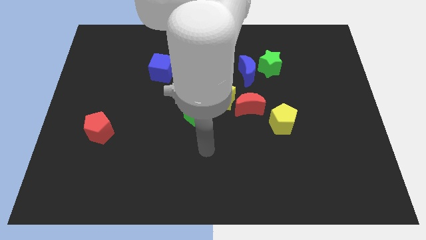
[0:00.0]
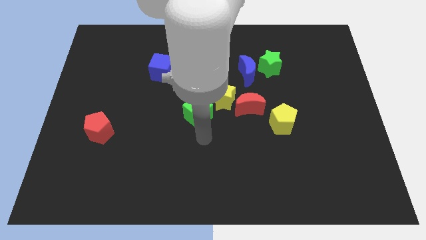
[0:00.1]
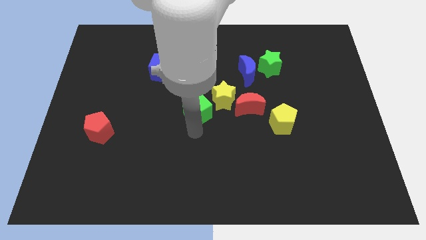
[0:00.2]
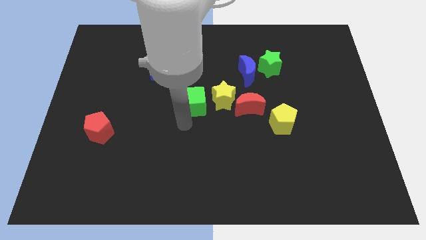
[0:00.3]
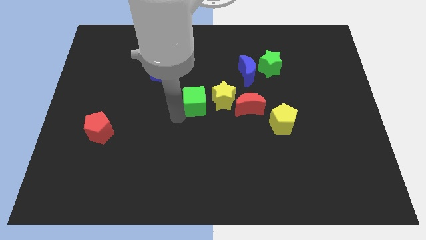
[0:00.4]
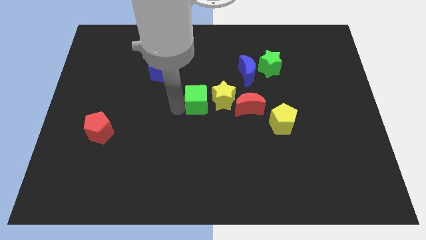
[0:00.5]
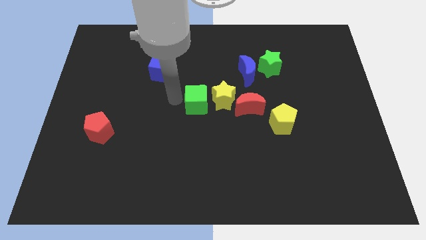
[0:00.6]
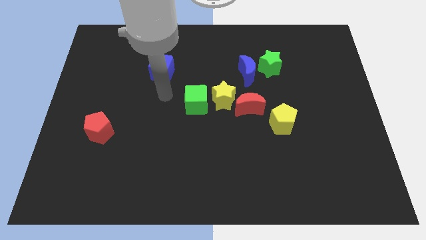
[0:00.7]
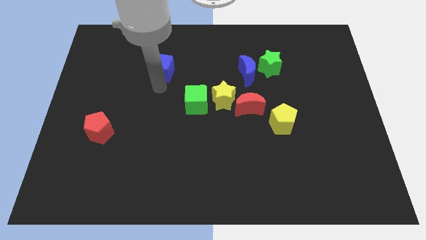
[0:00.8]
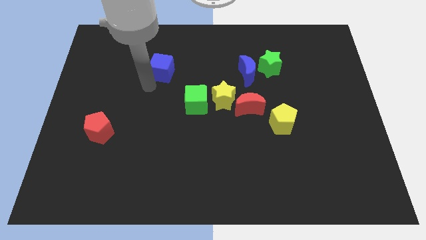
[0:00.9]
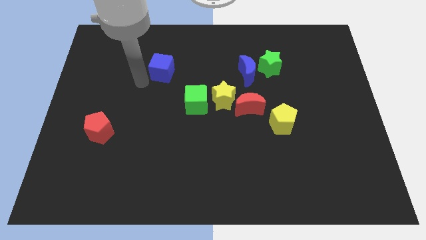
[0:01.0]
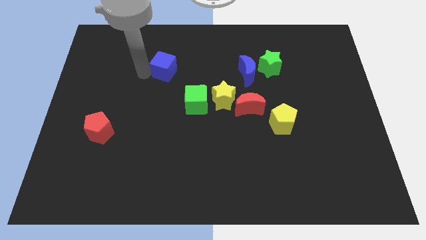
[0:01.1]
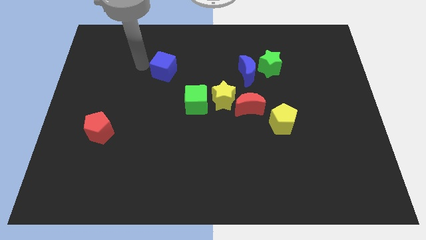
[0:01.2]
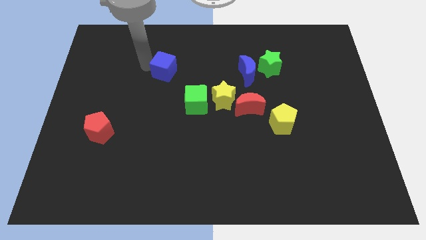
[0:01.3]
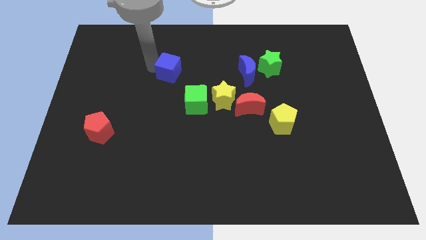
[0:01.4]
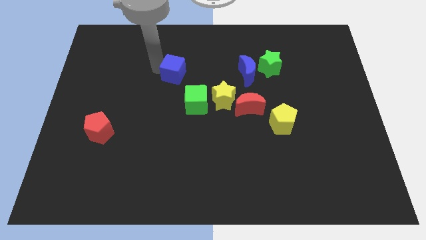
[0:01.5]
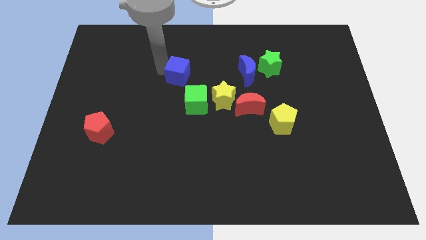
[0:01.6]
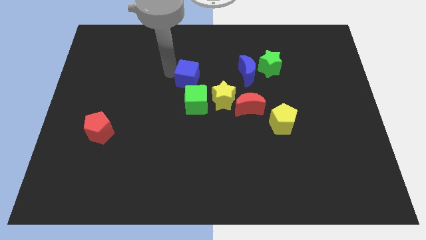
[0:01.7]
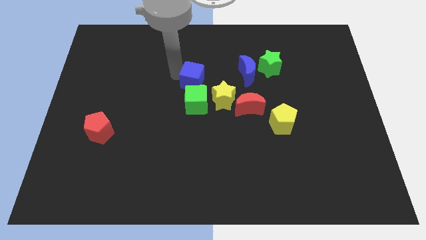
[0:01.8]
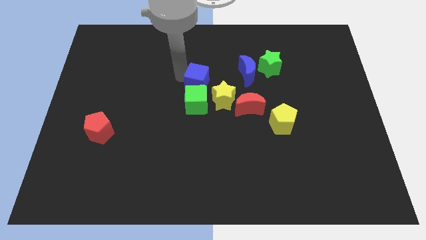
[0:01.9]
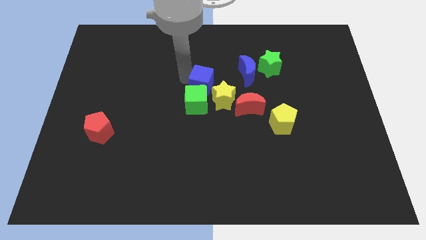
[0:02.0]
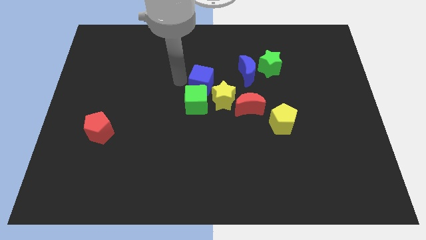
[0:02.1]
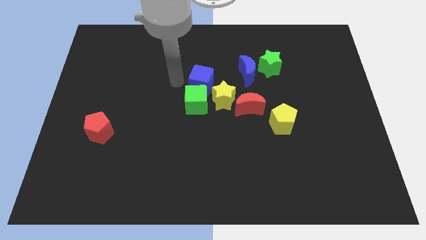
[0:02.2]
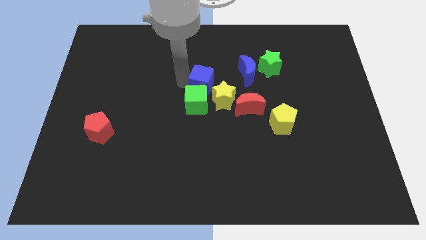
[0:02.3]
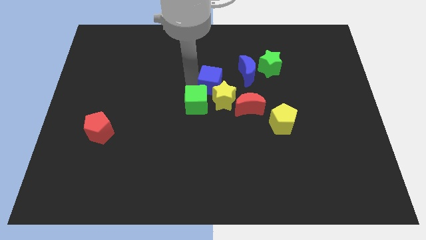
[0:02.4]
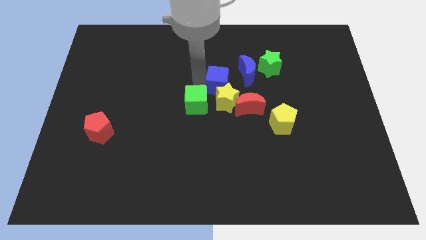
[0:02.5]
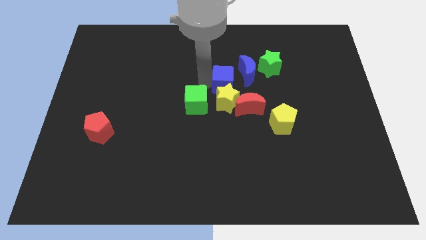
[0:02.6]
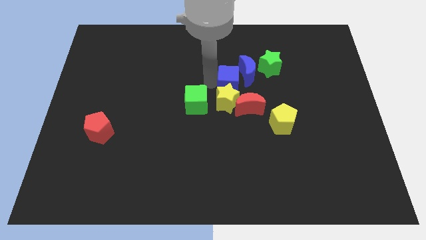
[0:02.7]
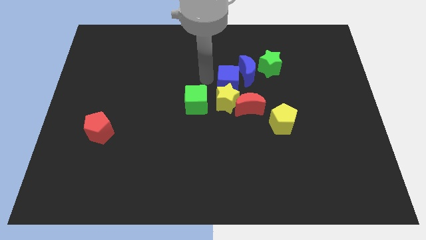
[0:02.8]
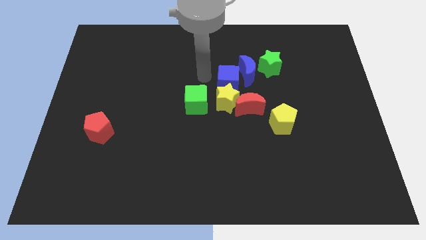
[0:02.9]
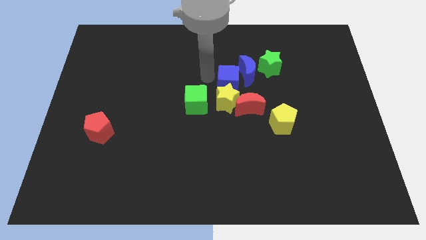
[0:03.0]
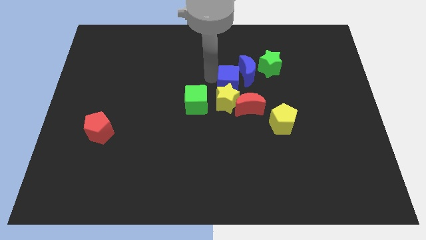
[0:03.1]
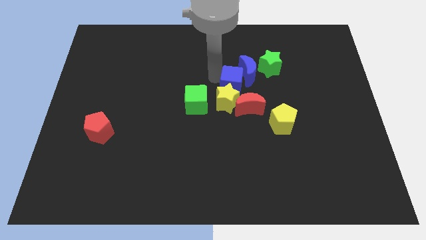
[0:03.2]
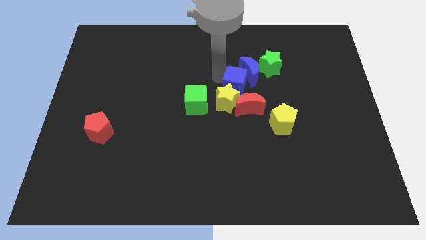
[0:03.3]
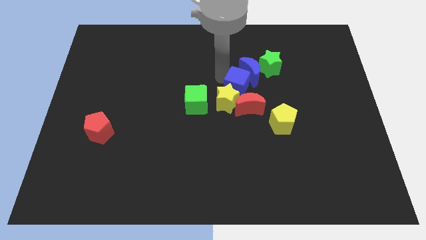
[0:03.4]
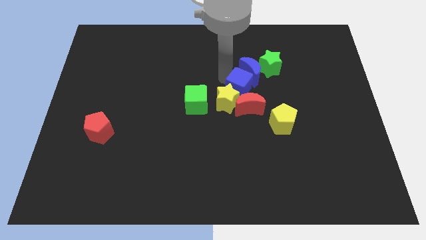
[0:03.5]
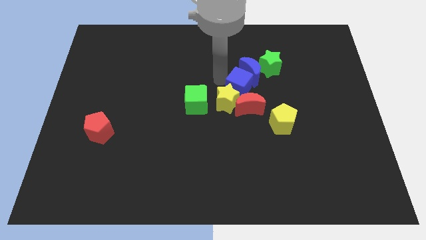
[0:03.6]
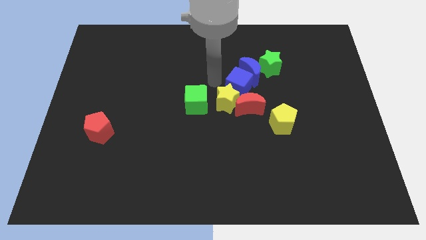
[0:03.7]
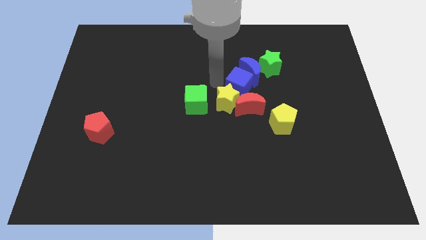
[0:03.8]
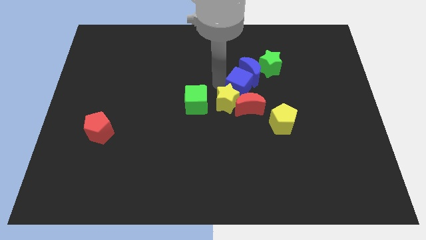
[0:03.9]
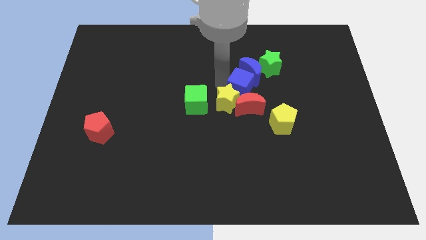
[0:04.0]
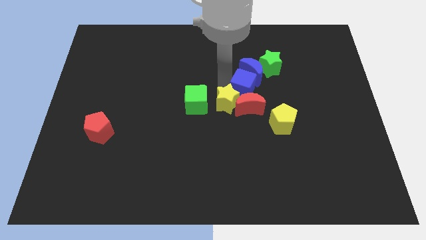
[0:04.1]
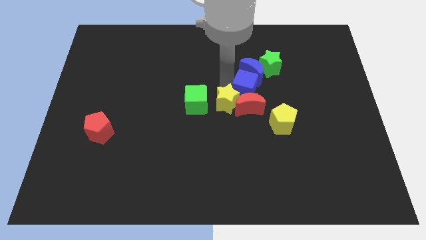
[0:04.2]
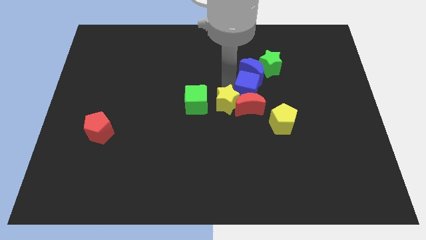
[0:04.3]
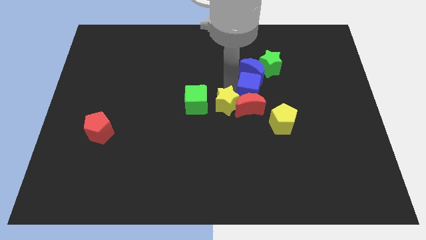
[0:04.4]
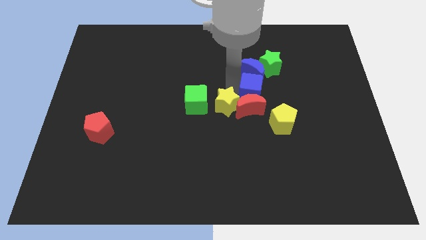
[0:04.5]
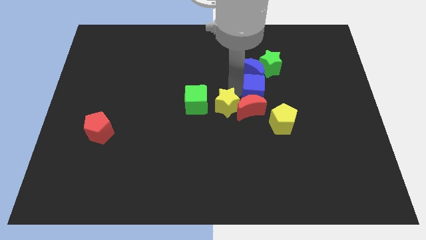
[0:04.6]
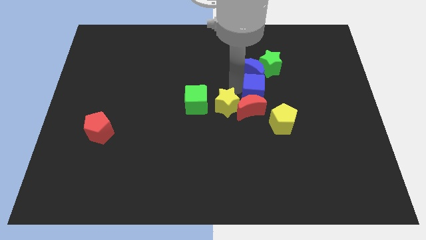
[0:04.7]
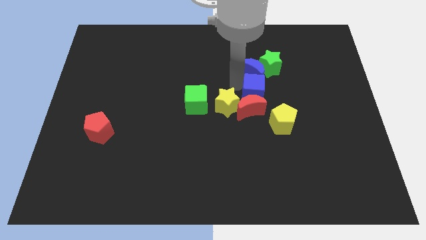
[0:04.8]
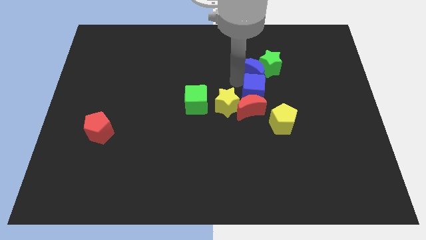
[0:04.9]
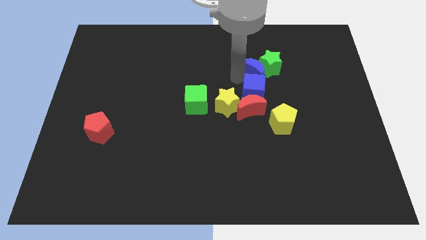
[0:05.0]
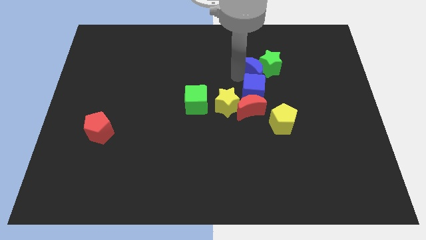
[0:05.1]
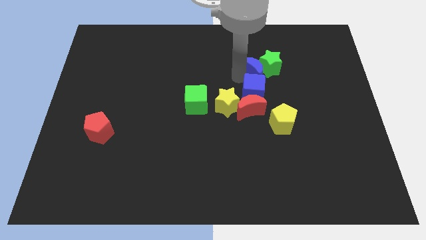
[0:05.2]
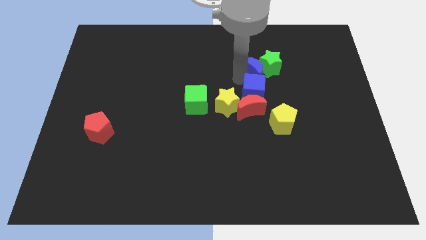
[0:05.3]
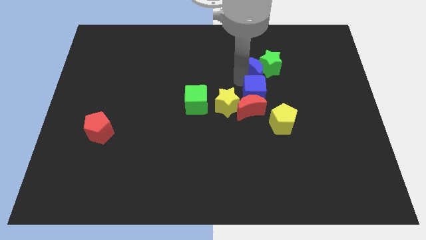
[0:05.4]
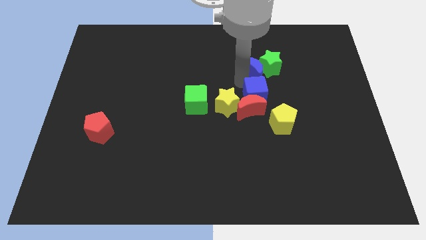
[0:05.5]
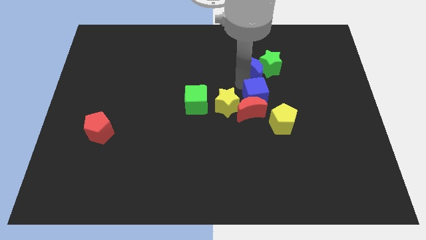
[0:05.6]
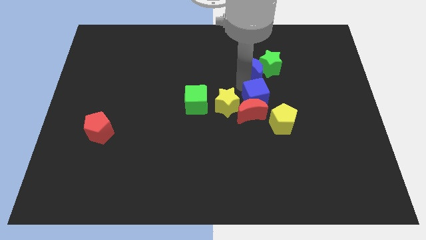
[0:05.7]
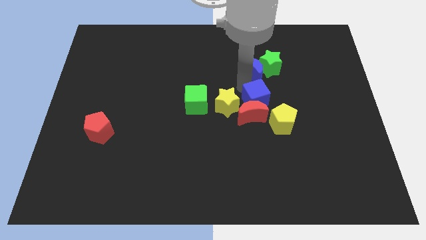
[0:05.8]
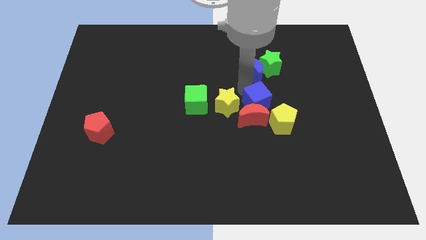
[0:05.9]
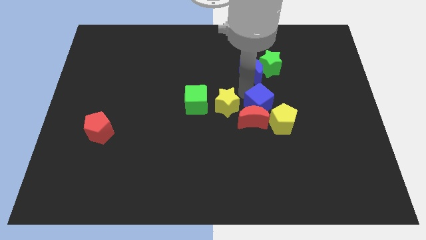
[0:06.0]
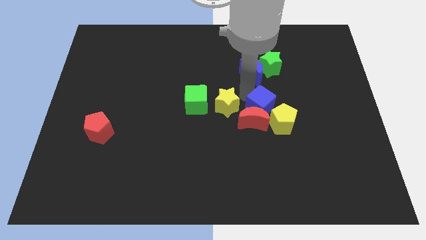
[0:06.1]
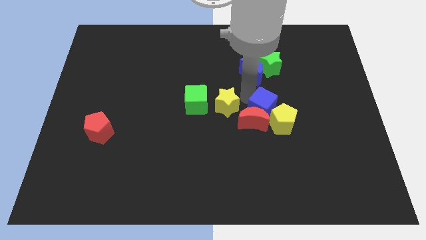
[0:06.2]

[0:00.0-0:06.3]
put the blue cube towards the yellow pentagon

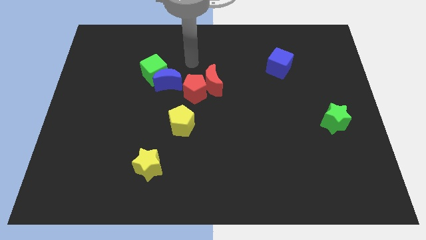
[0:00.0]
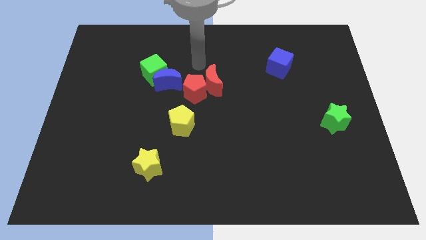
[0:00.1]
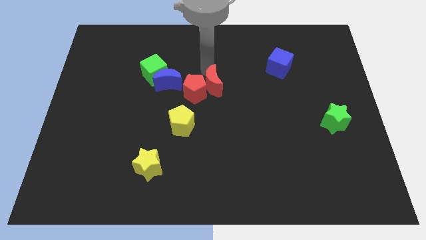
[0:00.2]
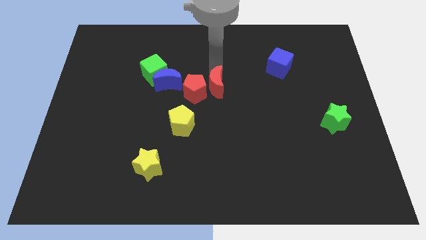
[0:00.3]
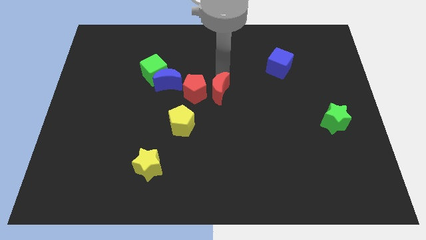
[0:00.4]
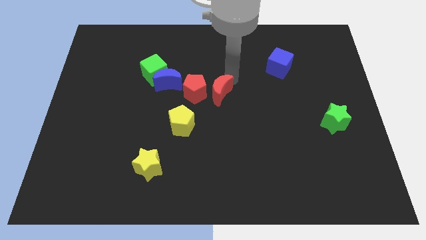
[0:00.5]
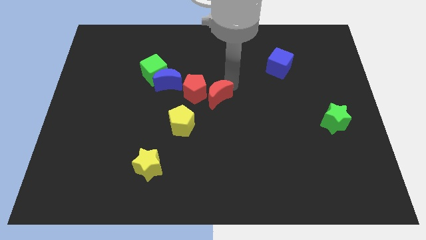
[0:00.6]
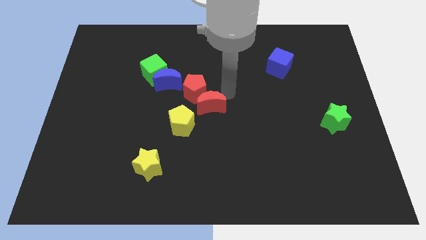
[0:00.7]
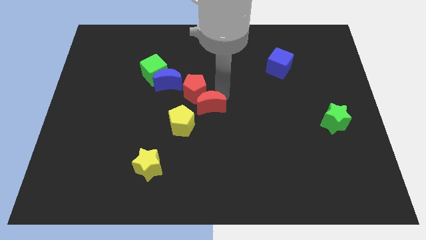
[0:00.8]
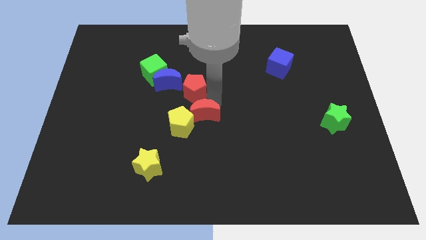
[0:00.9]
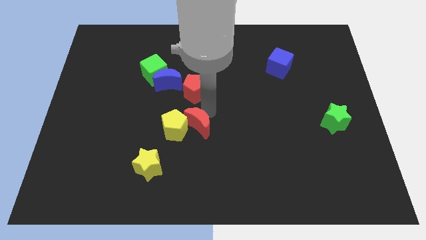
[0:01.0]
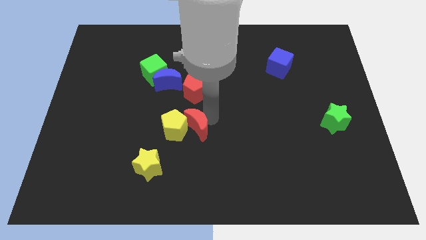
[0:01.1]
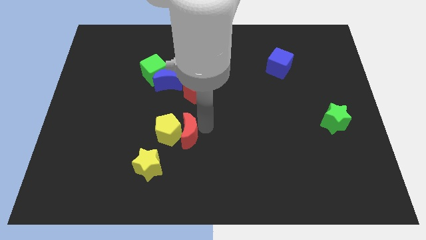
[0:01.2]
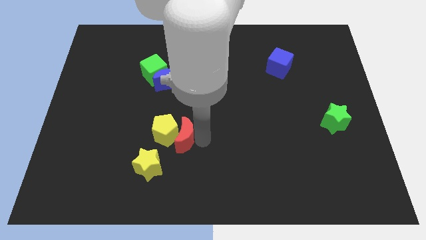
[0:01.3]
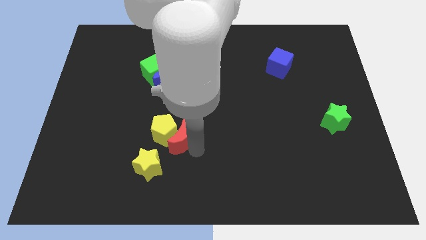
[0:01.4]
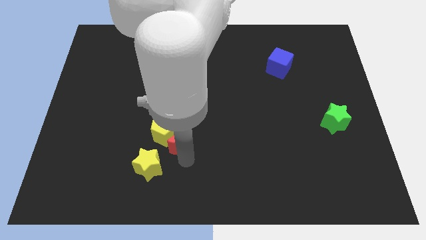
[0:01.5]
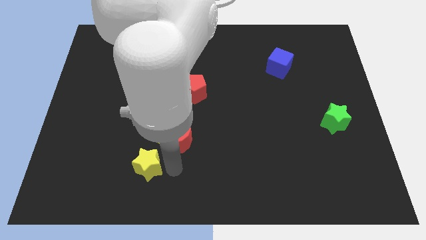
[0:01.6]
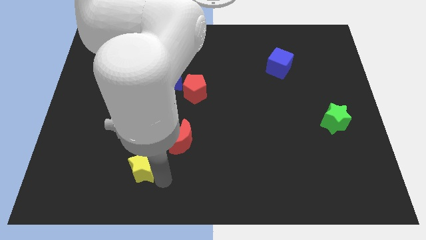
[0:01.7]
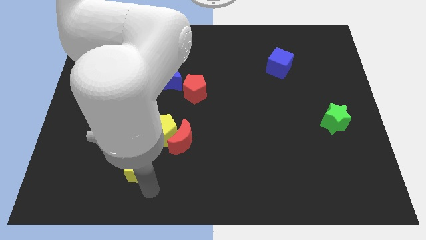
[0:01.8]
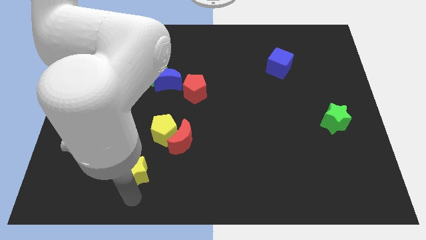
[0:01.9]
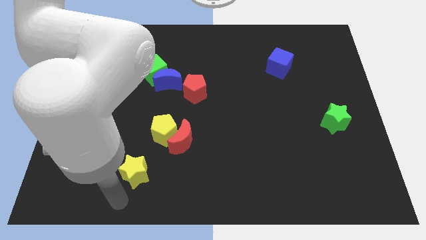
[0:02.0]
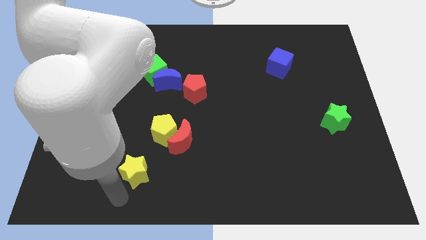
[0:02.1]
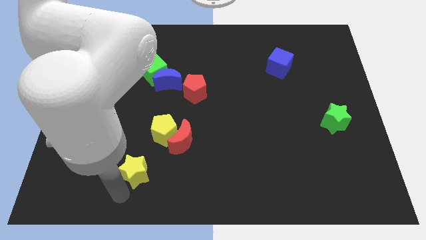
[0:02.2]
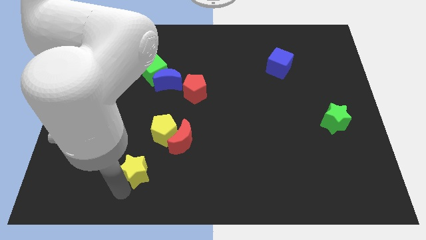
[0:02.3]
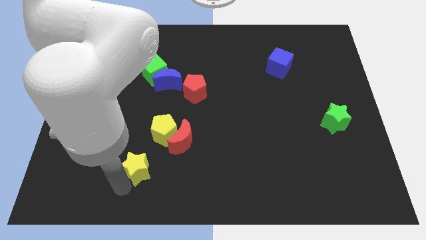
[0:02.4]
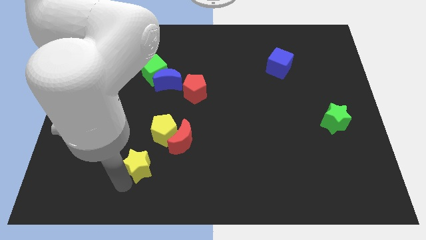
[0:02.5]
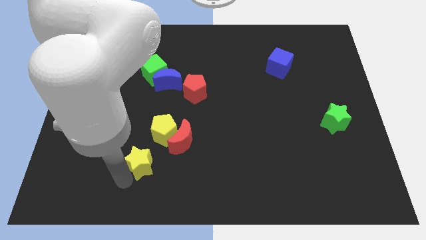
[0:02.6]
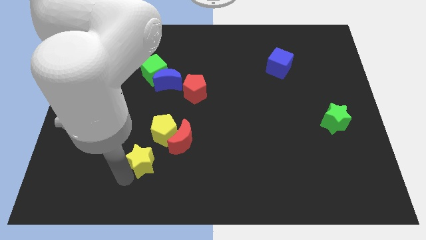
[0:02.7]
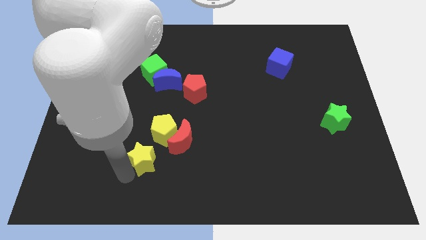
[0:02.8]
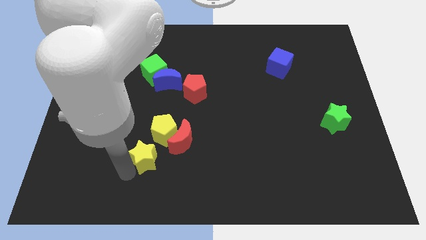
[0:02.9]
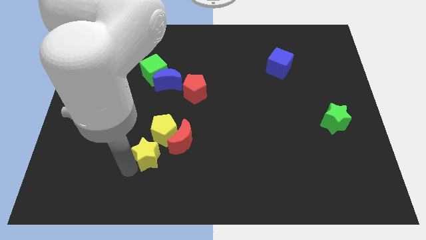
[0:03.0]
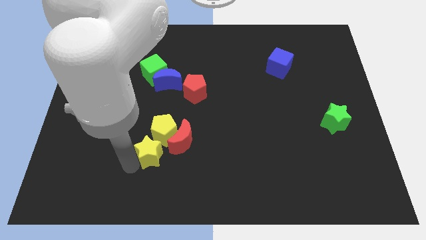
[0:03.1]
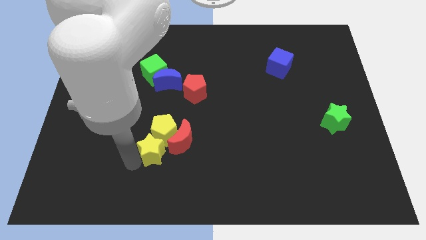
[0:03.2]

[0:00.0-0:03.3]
slide the yellow star close to the yellow pentagon
